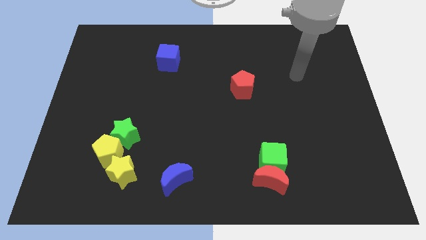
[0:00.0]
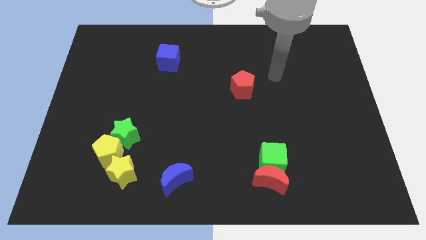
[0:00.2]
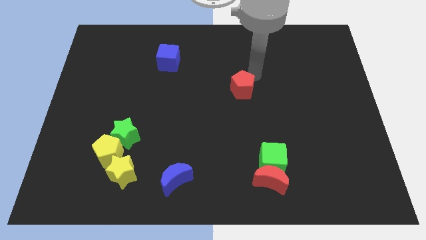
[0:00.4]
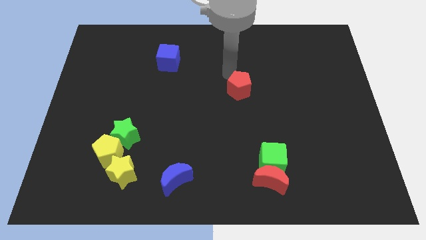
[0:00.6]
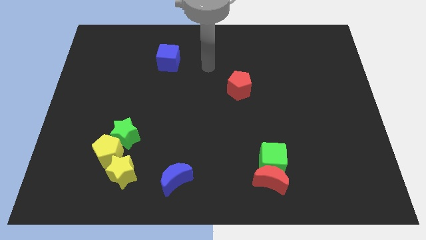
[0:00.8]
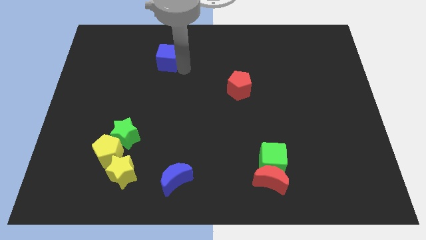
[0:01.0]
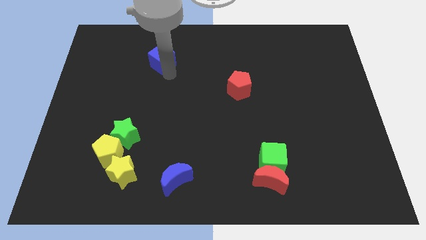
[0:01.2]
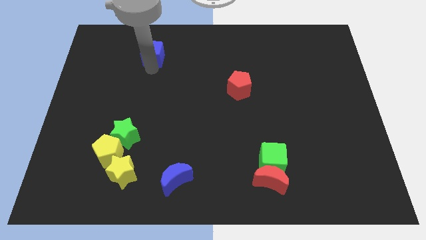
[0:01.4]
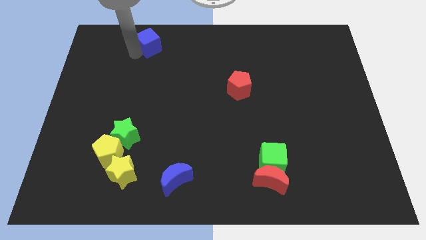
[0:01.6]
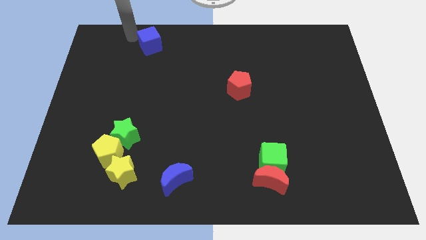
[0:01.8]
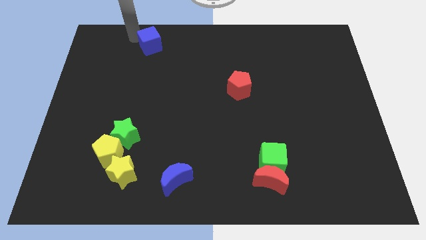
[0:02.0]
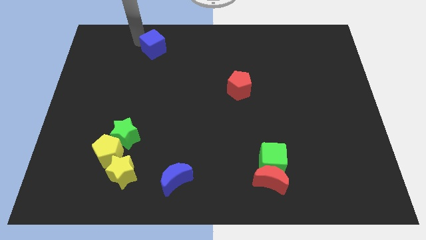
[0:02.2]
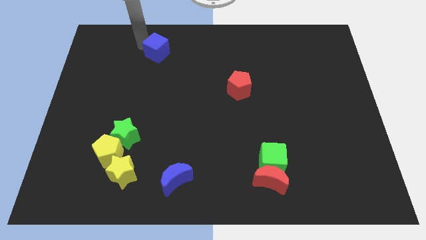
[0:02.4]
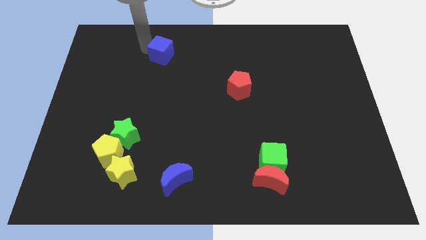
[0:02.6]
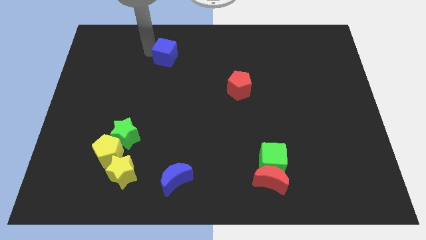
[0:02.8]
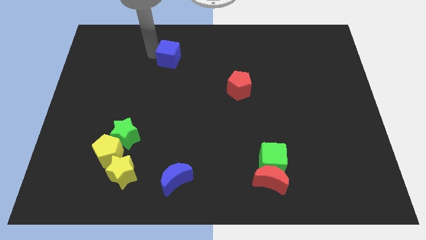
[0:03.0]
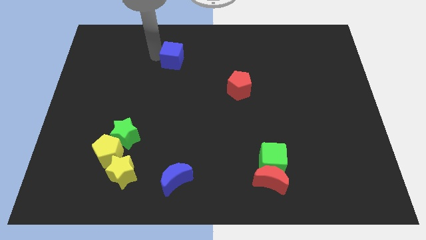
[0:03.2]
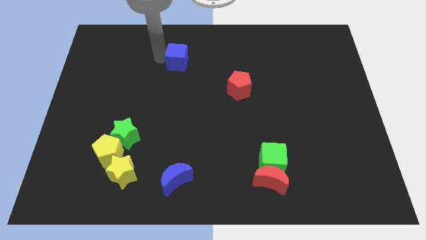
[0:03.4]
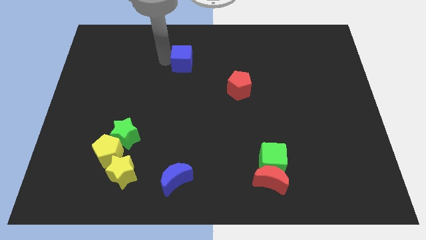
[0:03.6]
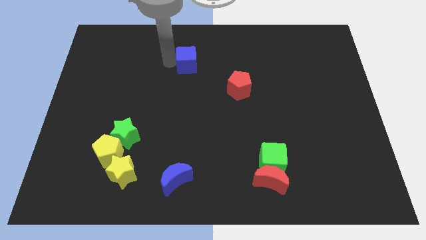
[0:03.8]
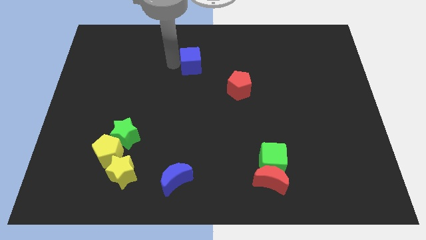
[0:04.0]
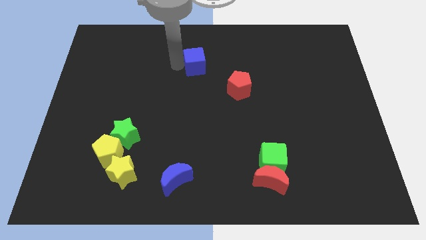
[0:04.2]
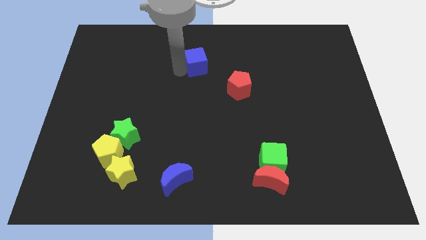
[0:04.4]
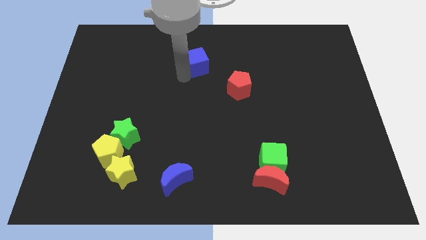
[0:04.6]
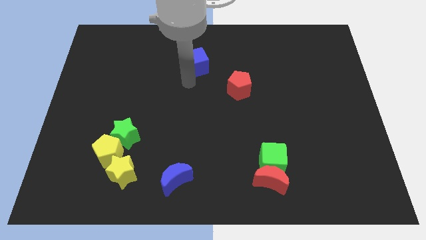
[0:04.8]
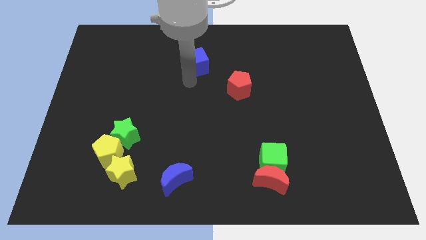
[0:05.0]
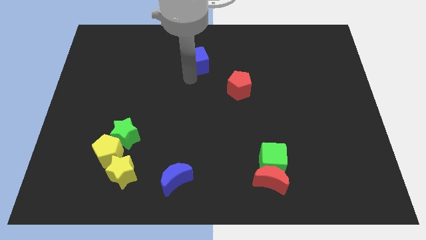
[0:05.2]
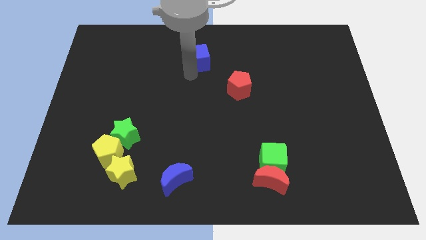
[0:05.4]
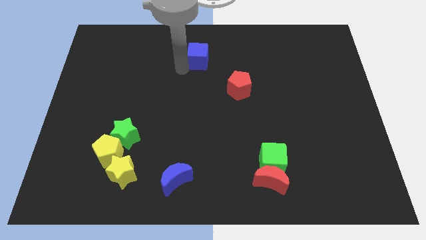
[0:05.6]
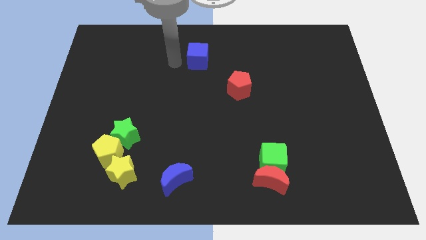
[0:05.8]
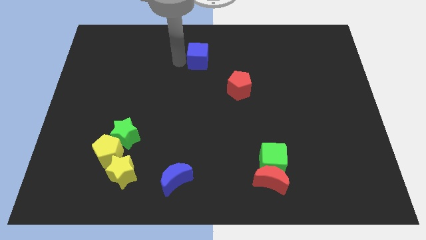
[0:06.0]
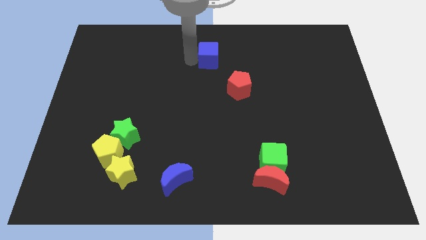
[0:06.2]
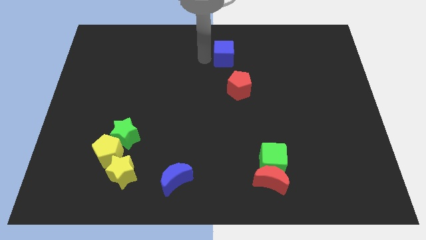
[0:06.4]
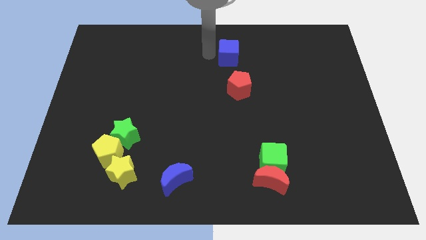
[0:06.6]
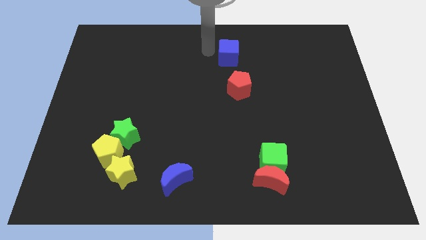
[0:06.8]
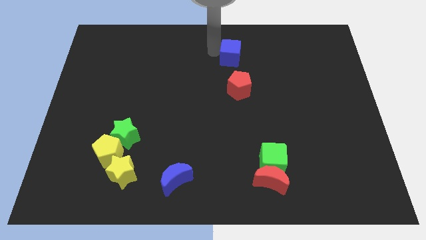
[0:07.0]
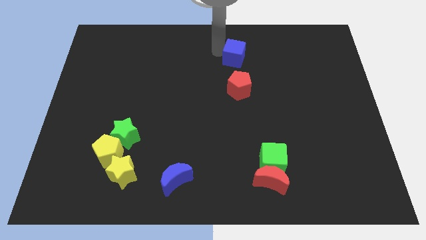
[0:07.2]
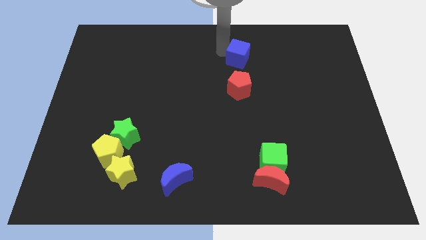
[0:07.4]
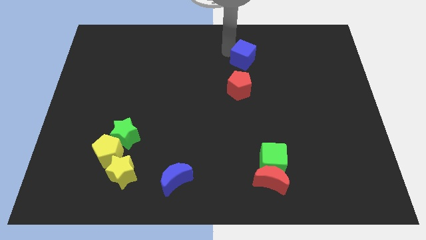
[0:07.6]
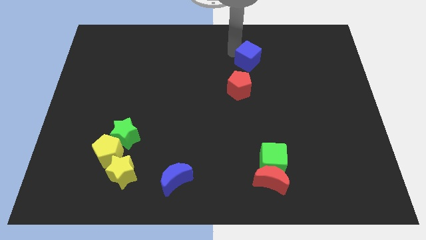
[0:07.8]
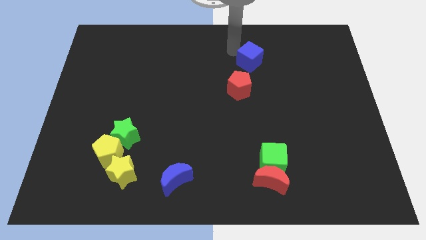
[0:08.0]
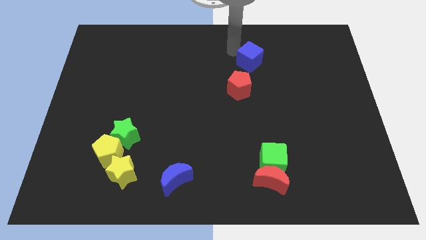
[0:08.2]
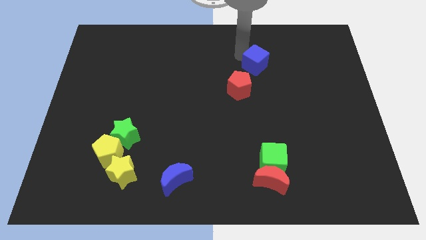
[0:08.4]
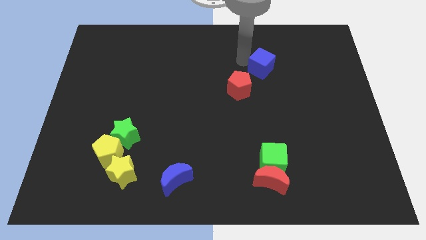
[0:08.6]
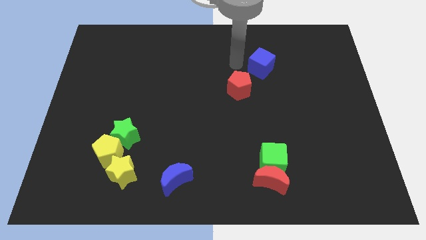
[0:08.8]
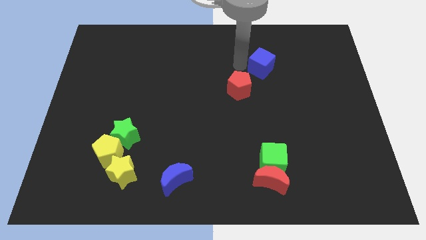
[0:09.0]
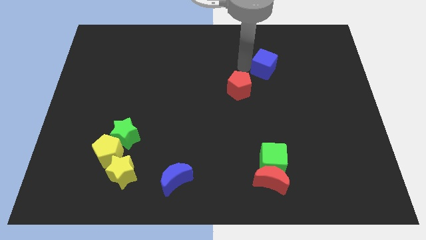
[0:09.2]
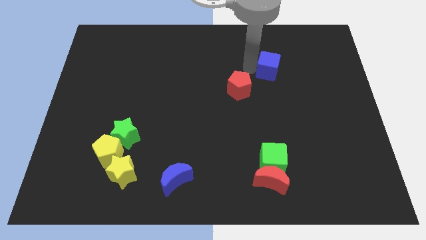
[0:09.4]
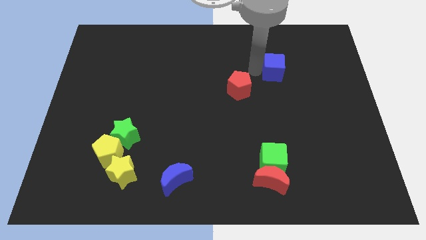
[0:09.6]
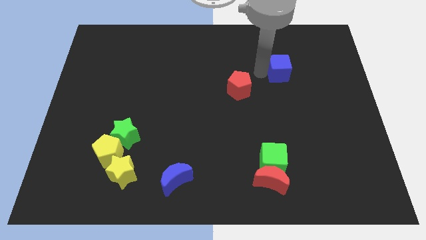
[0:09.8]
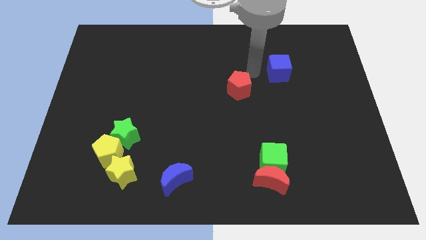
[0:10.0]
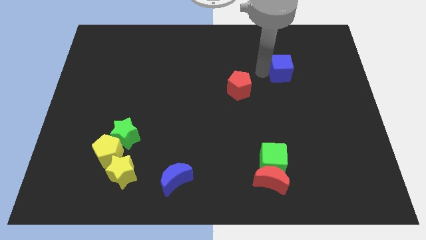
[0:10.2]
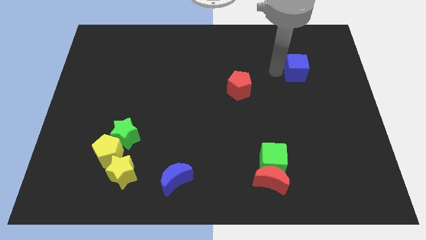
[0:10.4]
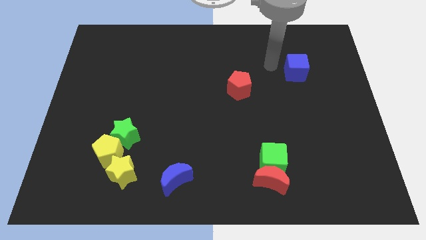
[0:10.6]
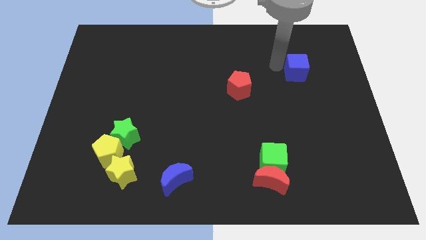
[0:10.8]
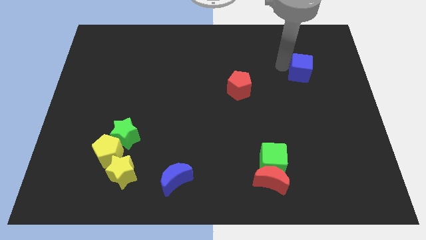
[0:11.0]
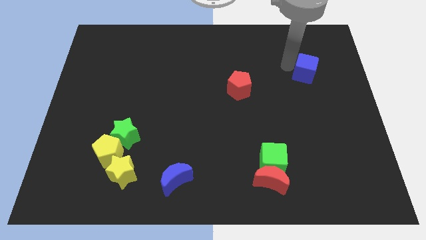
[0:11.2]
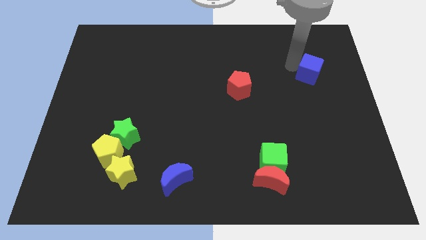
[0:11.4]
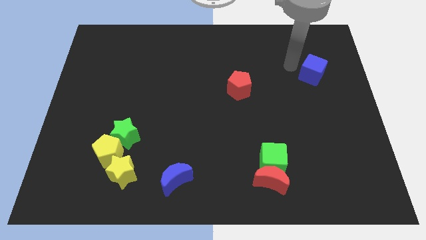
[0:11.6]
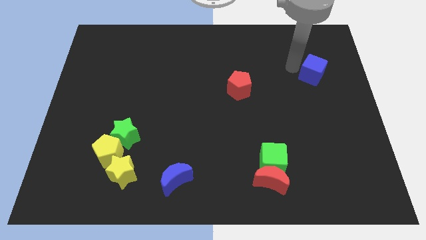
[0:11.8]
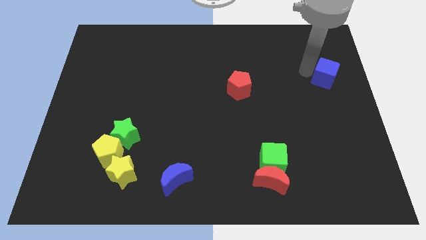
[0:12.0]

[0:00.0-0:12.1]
put the blue cube to the center right

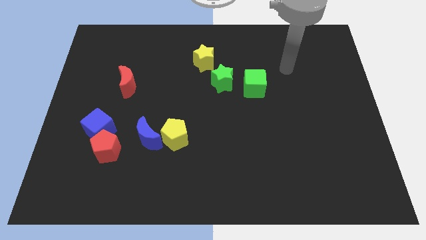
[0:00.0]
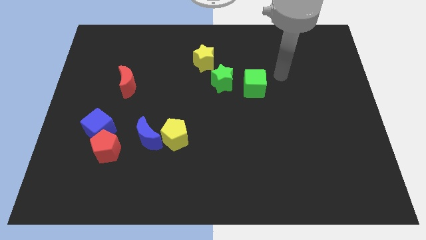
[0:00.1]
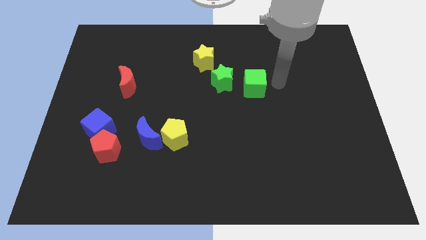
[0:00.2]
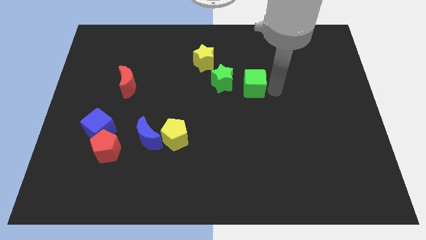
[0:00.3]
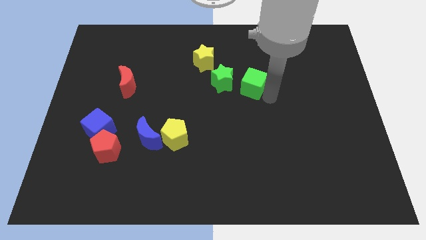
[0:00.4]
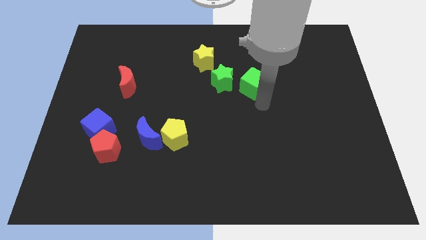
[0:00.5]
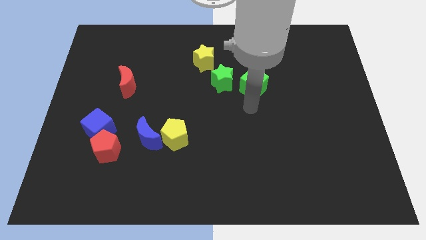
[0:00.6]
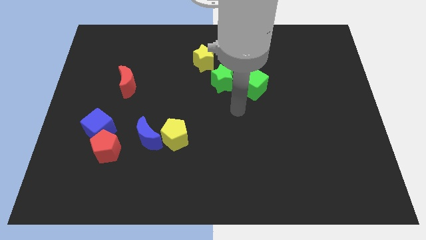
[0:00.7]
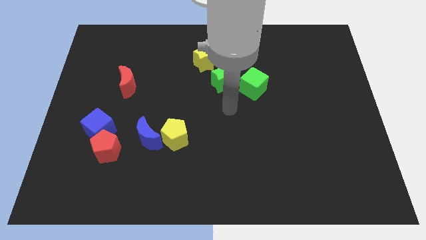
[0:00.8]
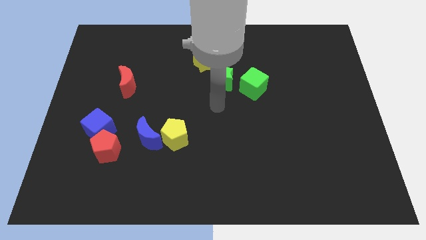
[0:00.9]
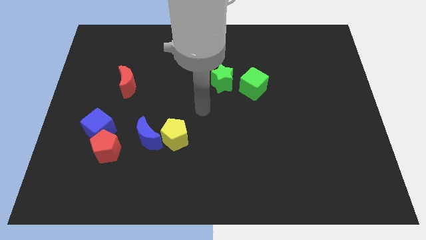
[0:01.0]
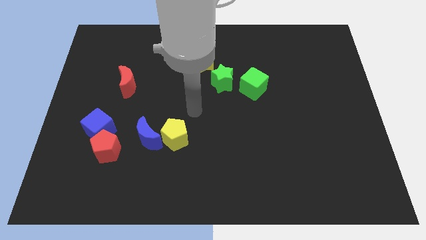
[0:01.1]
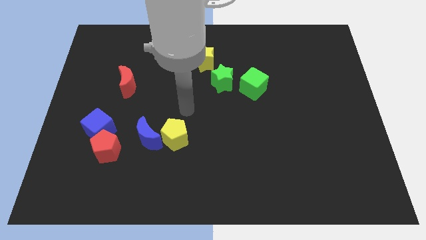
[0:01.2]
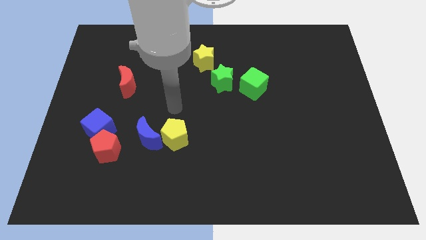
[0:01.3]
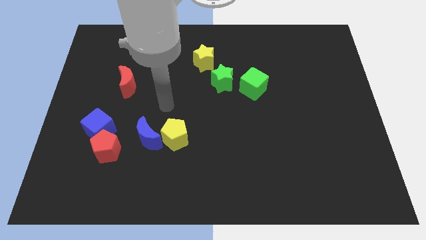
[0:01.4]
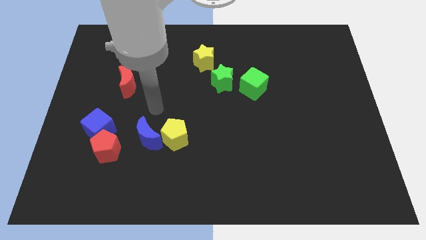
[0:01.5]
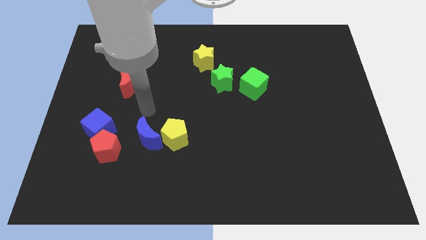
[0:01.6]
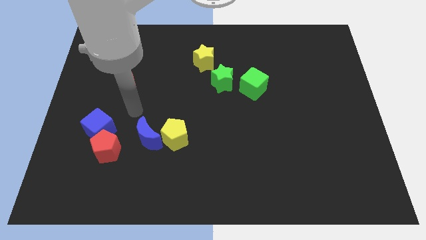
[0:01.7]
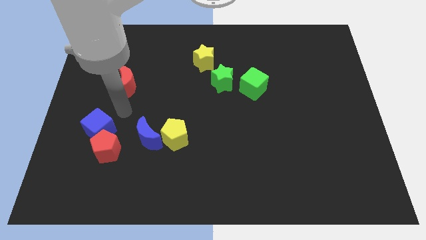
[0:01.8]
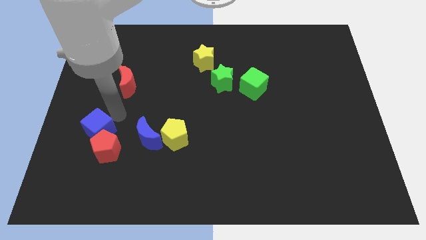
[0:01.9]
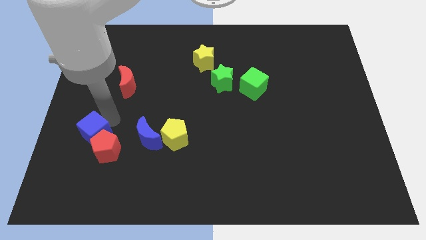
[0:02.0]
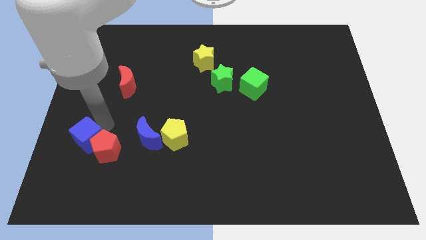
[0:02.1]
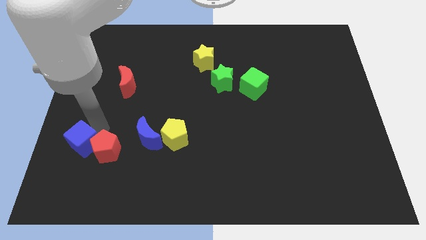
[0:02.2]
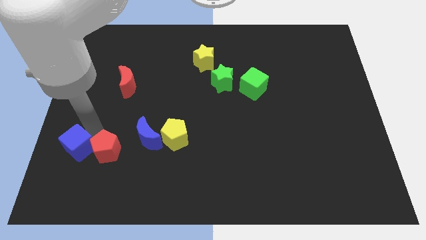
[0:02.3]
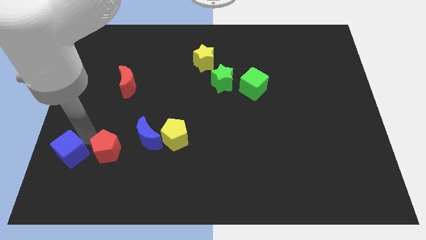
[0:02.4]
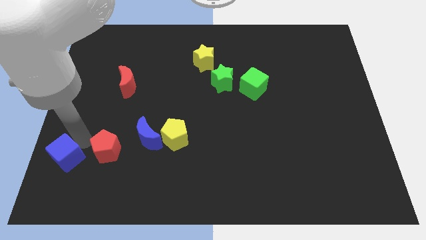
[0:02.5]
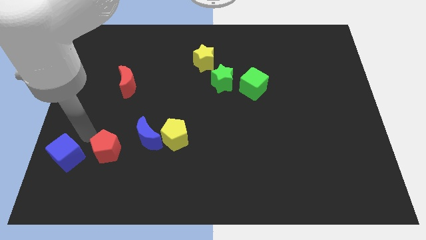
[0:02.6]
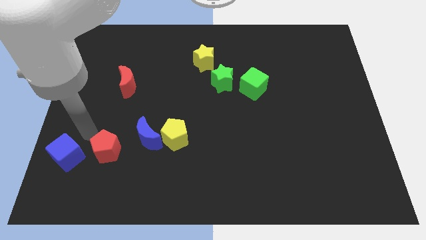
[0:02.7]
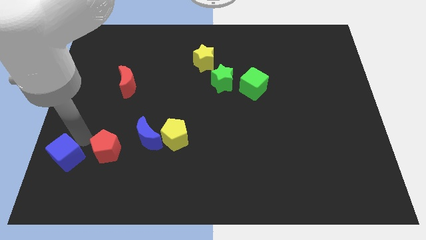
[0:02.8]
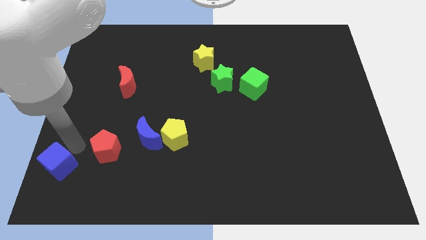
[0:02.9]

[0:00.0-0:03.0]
put the blue cube to the bottom left of the board
